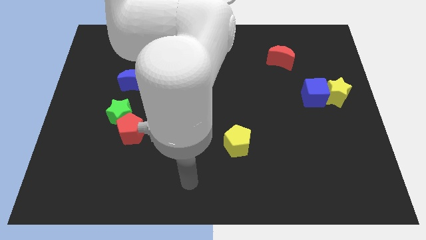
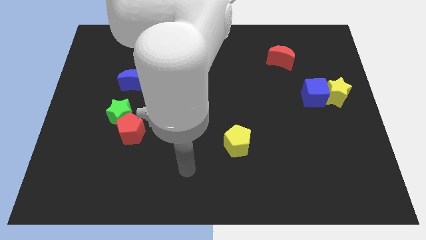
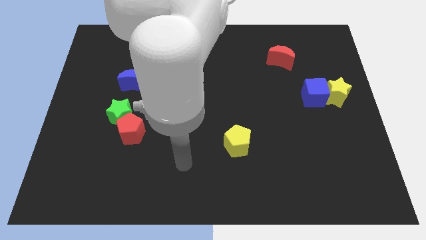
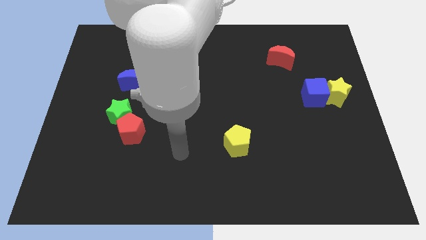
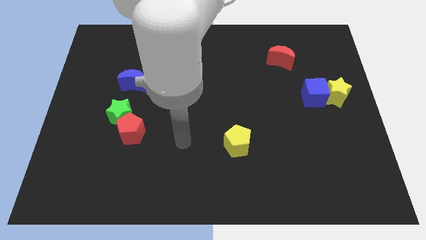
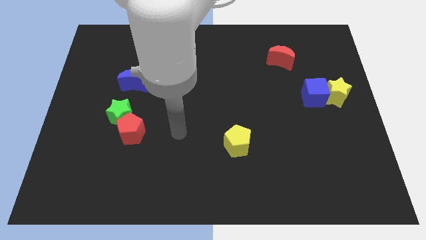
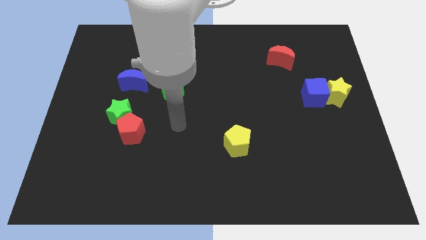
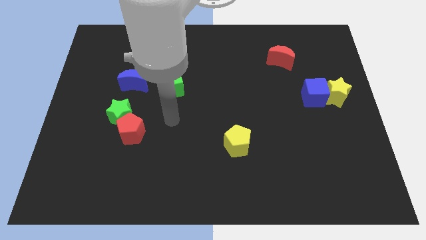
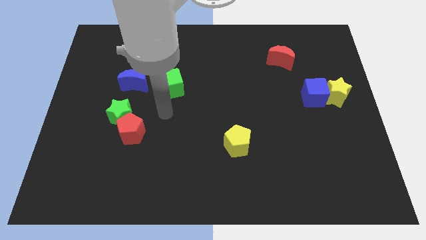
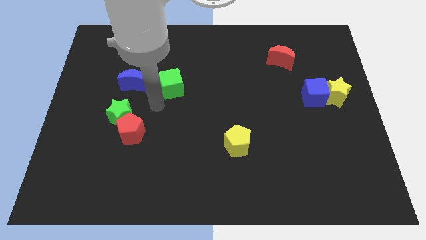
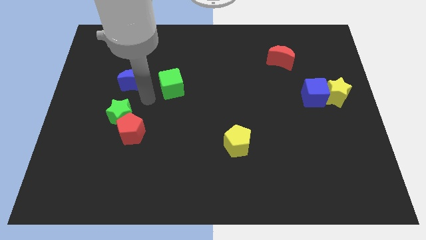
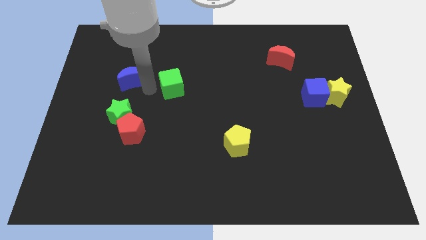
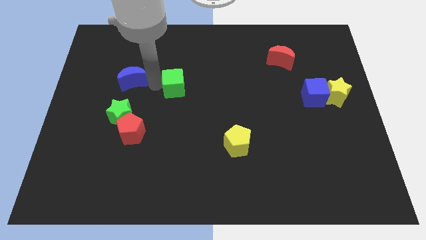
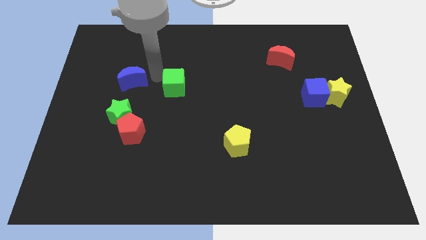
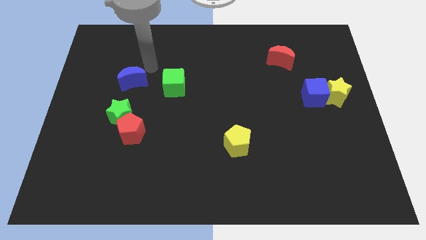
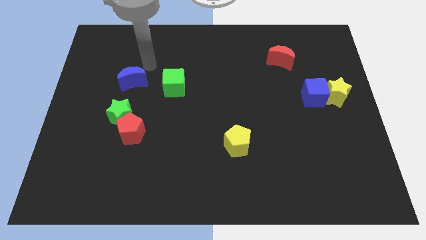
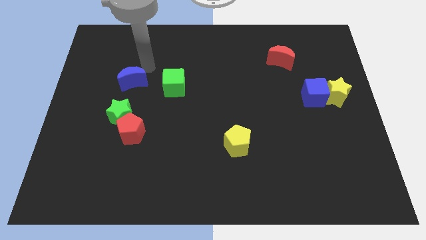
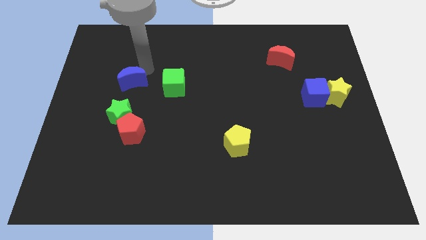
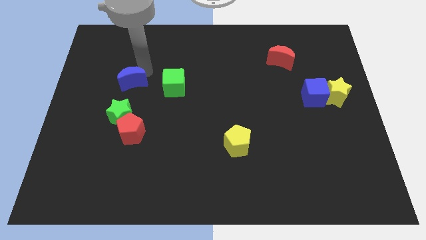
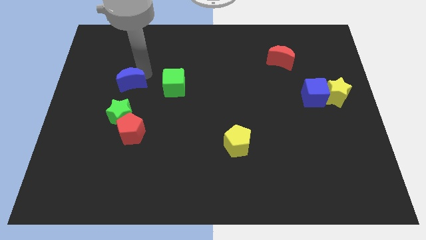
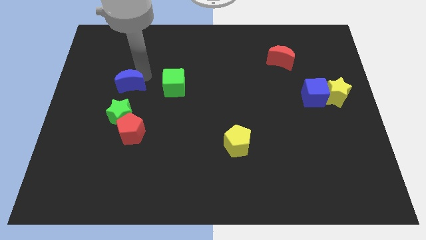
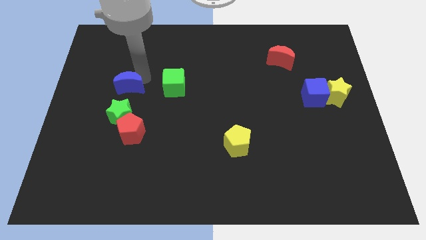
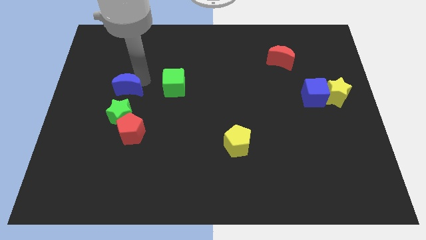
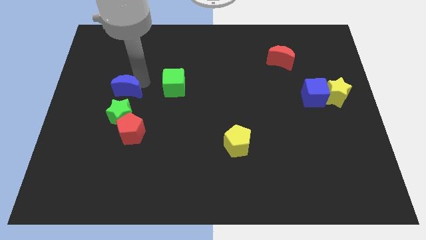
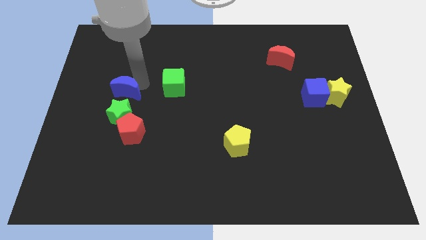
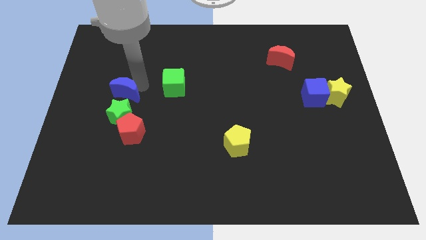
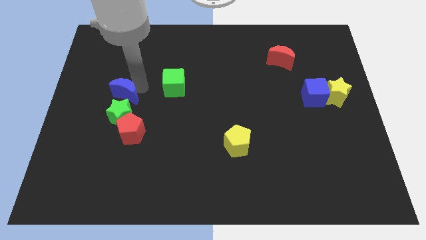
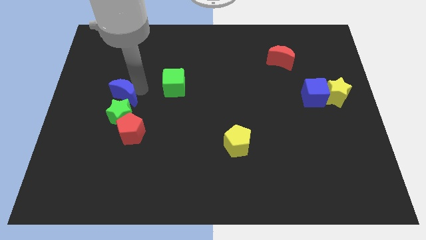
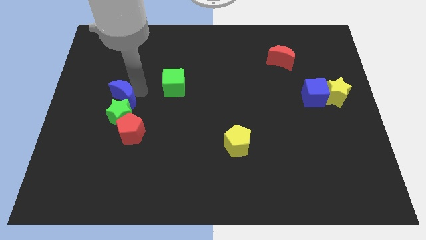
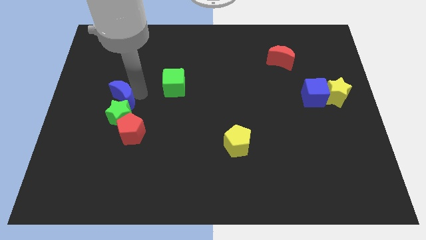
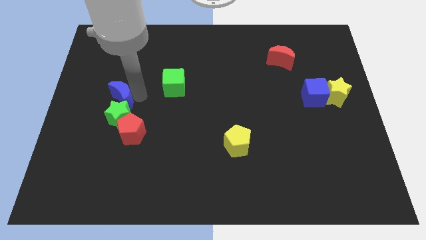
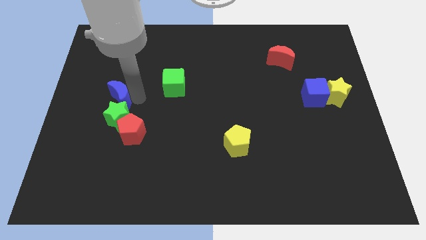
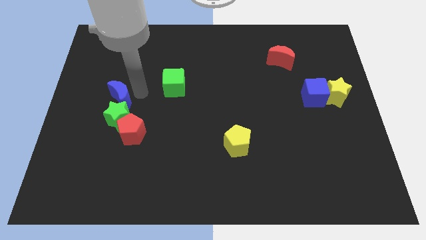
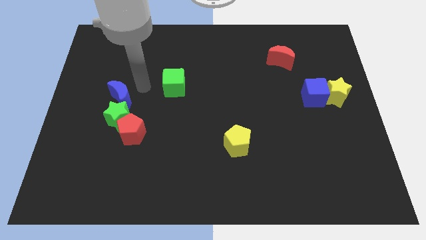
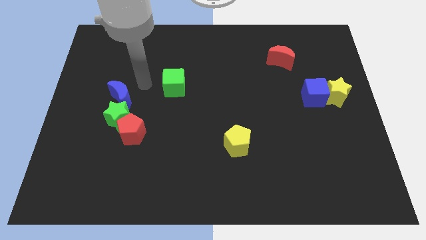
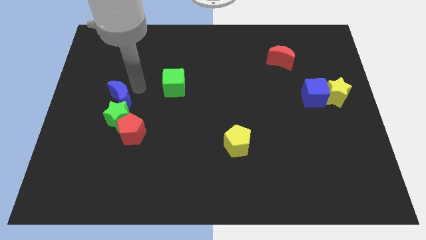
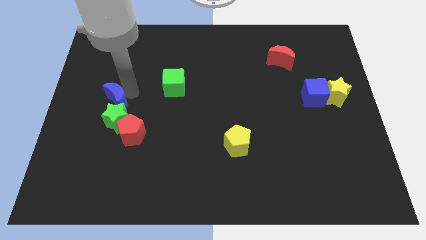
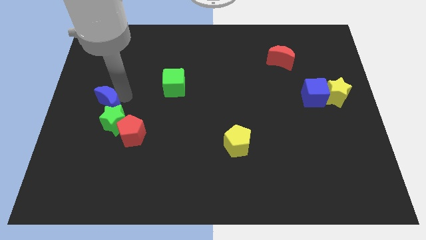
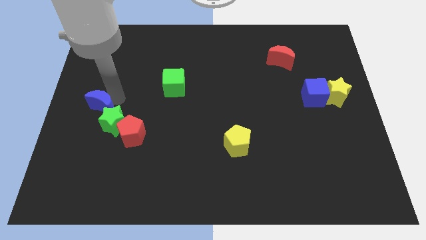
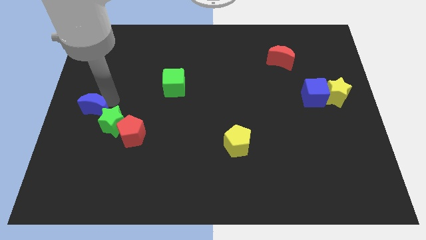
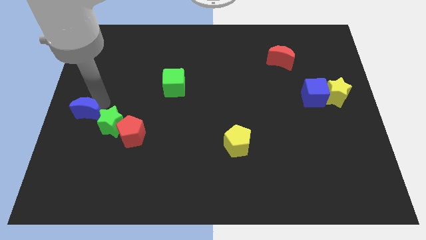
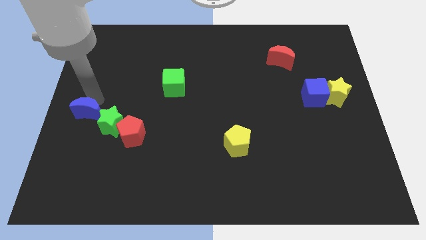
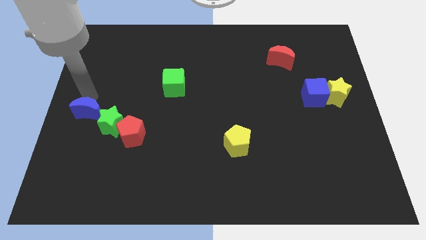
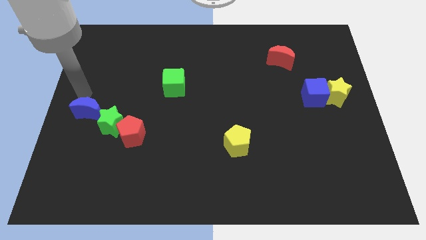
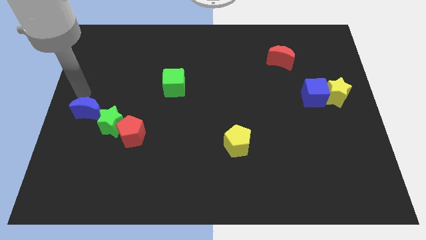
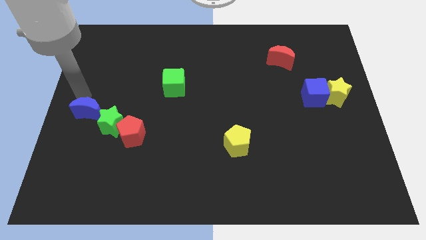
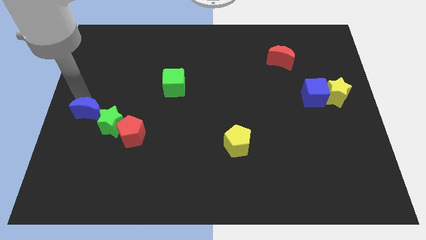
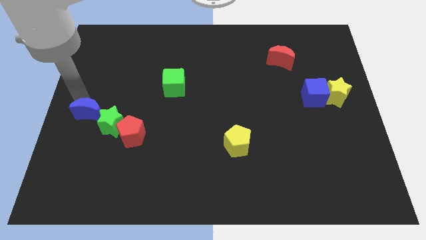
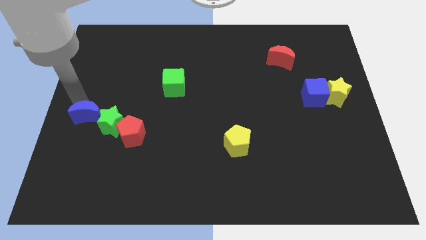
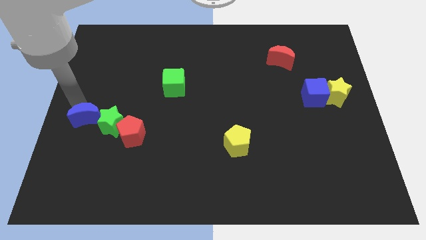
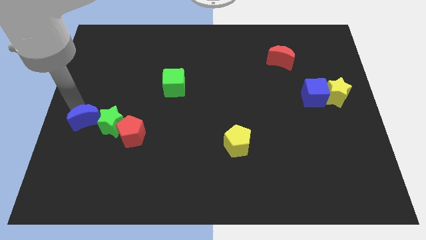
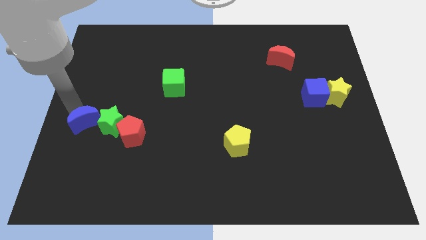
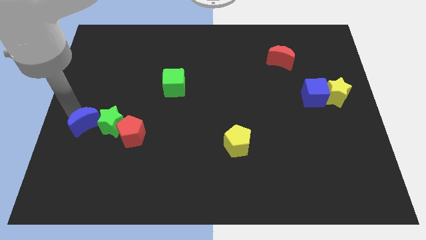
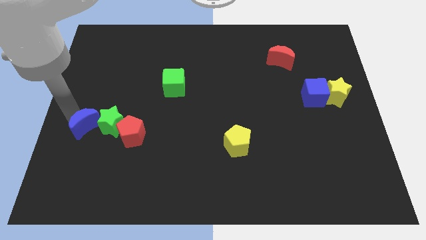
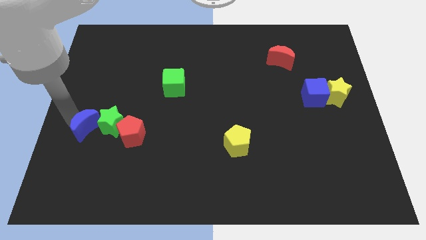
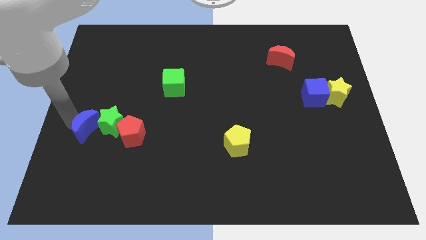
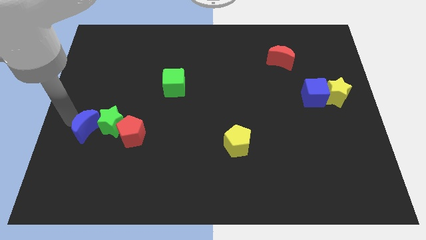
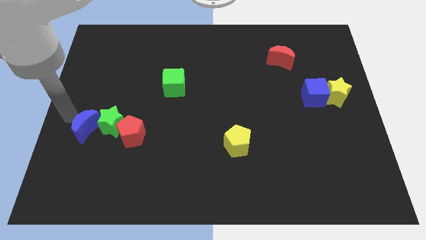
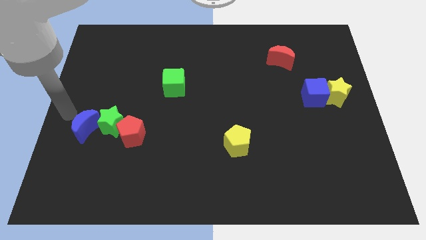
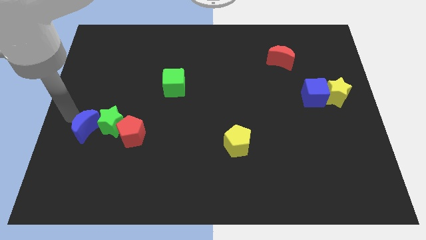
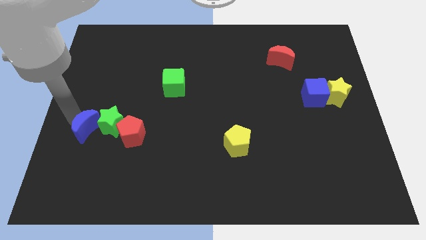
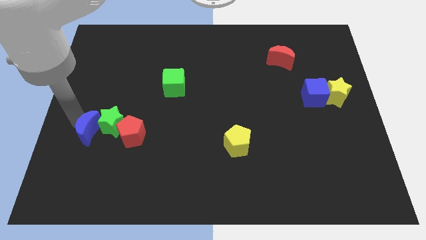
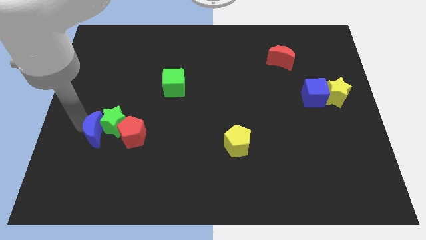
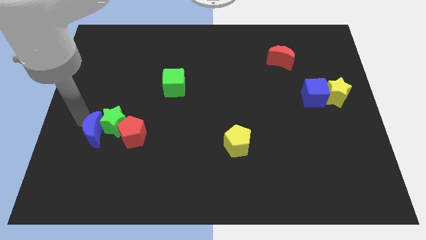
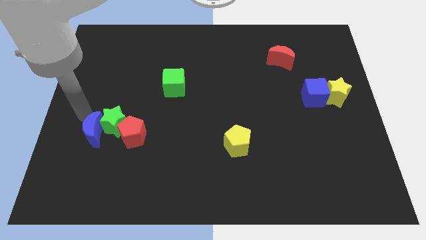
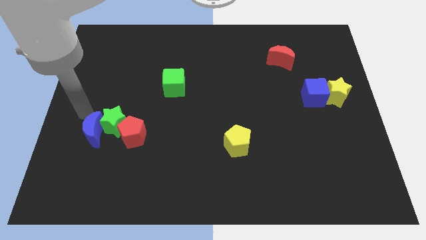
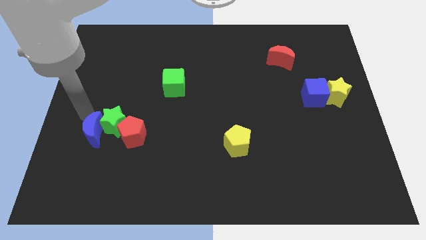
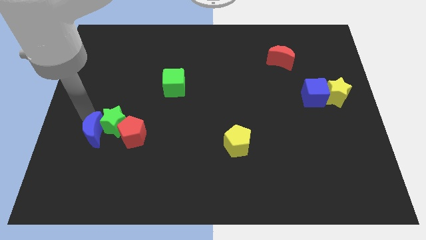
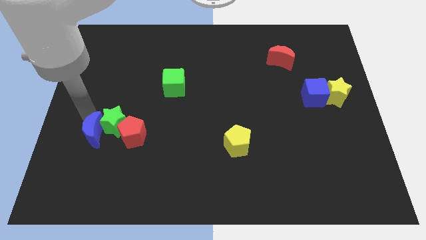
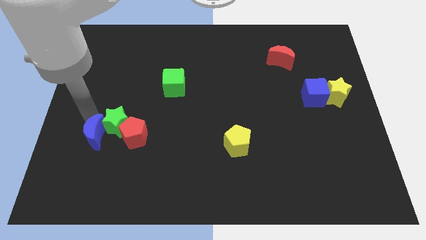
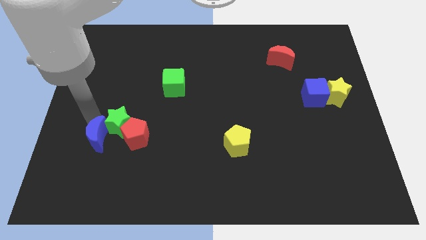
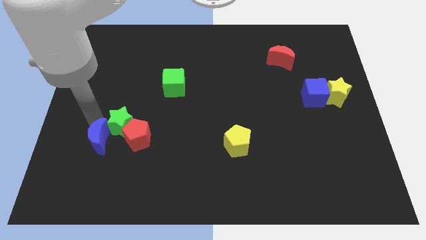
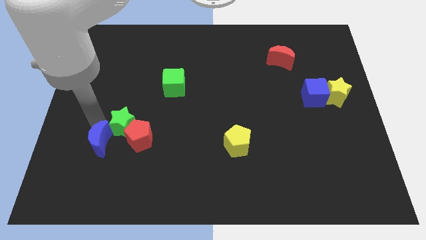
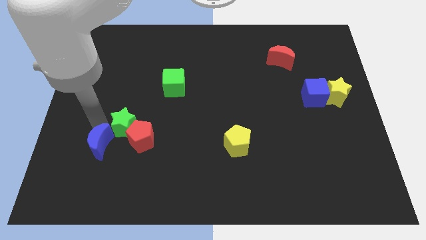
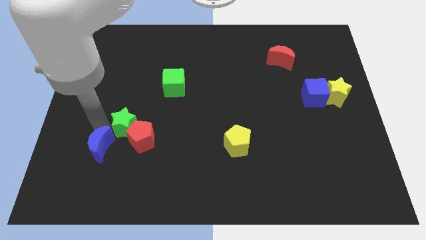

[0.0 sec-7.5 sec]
slide the blue moon to the bottom left of the red pentagon
